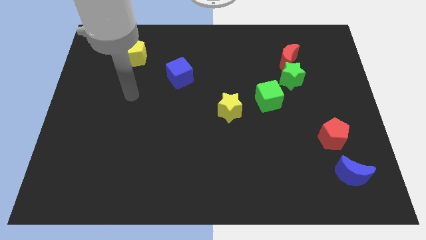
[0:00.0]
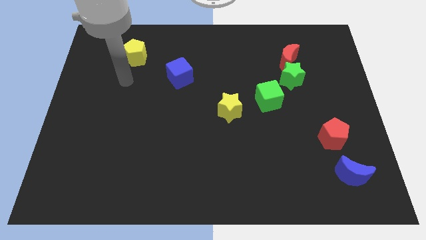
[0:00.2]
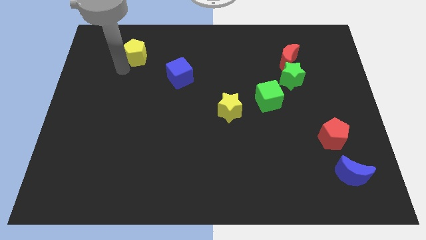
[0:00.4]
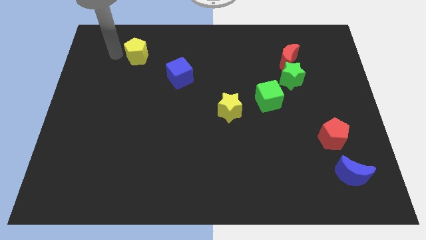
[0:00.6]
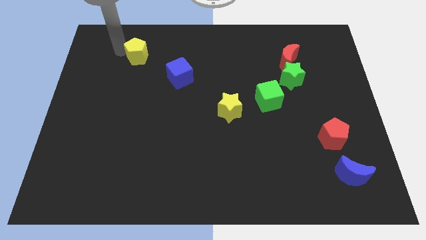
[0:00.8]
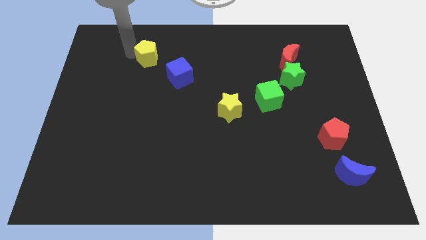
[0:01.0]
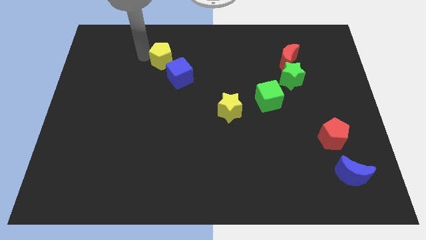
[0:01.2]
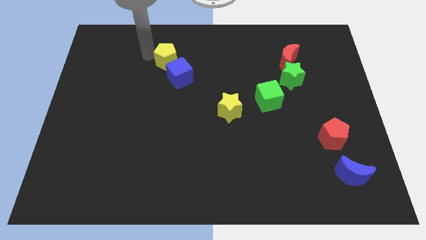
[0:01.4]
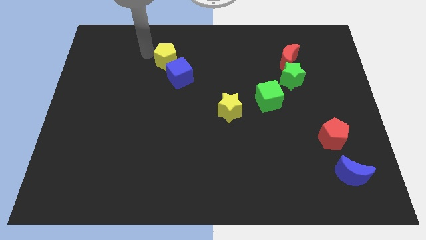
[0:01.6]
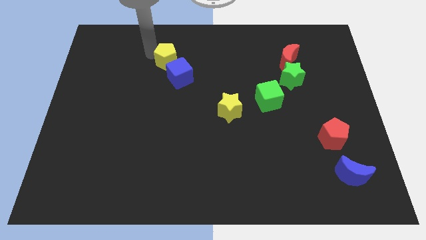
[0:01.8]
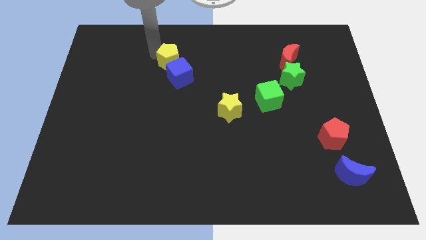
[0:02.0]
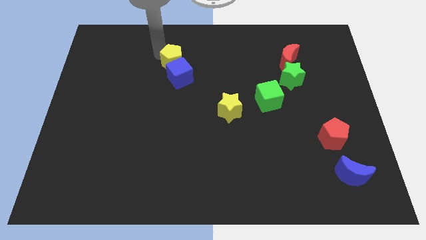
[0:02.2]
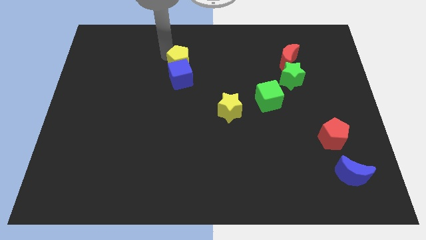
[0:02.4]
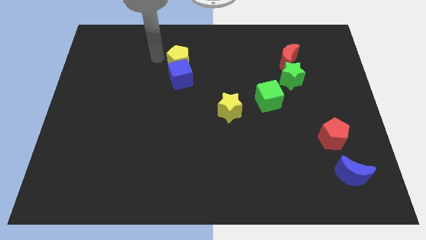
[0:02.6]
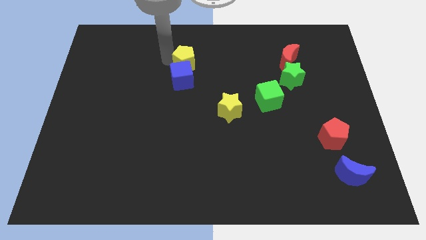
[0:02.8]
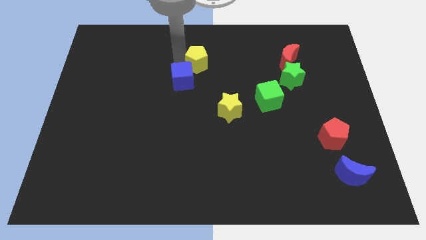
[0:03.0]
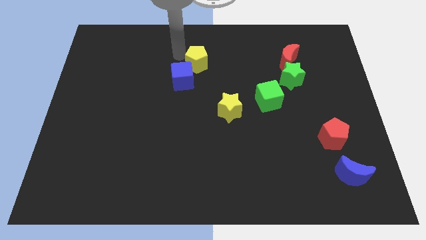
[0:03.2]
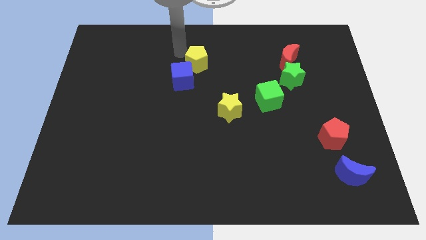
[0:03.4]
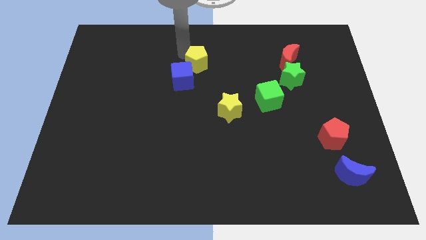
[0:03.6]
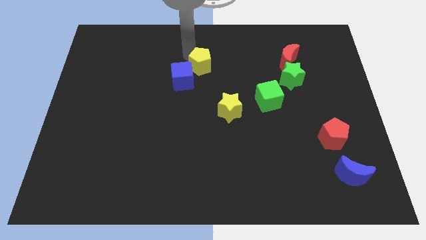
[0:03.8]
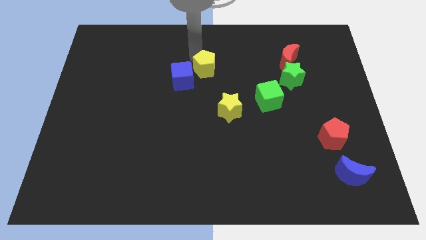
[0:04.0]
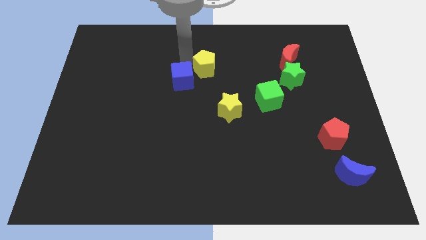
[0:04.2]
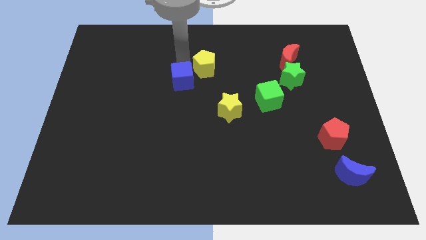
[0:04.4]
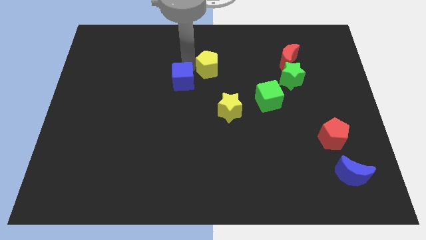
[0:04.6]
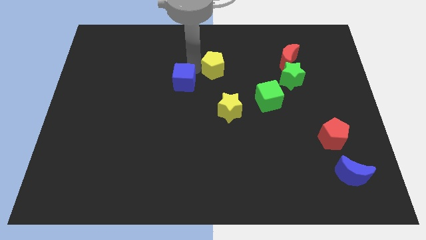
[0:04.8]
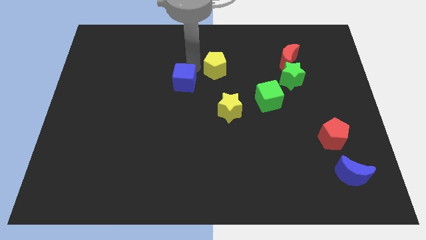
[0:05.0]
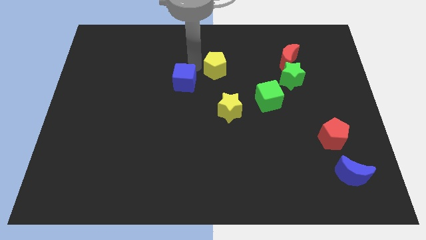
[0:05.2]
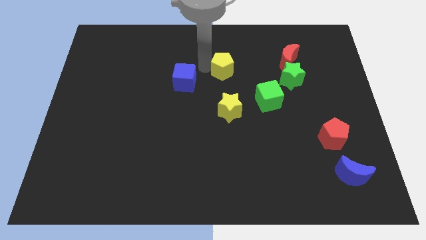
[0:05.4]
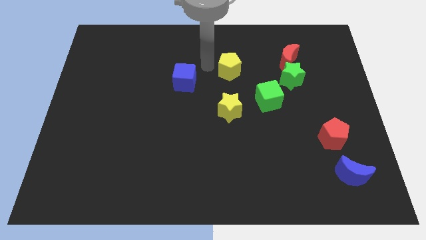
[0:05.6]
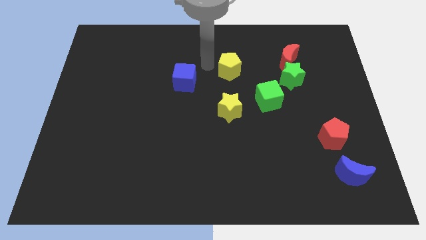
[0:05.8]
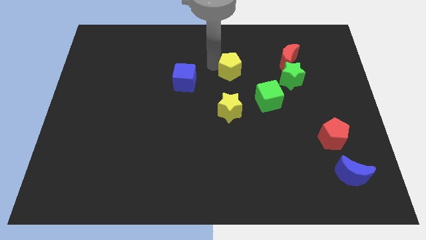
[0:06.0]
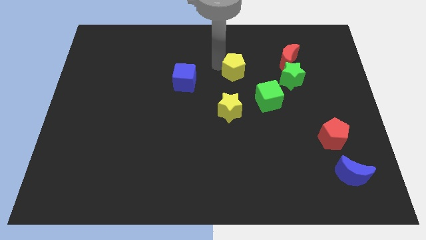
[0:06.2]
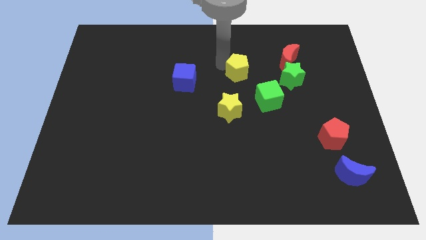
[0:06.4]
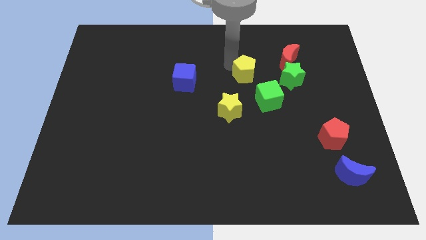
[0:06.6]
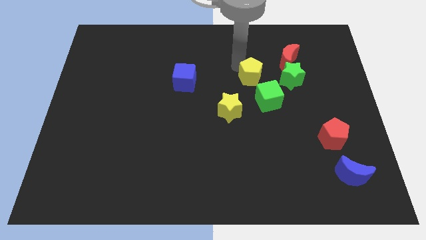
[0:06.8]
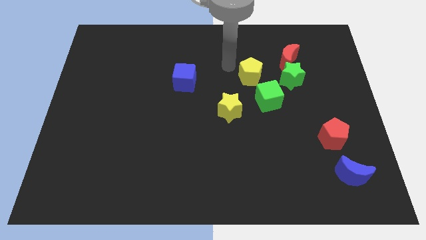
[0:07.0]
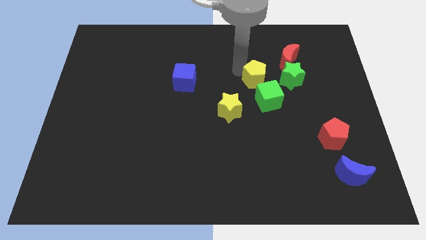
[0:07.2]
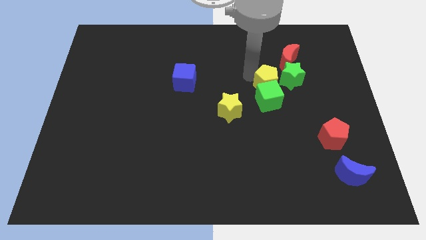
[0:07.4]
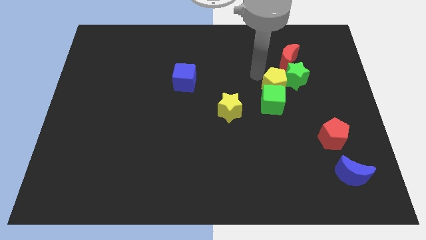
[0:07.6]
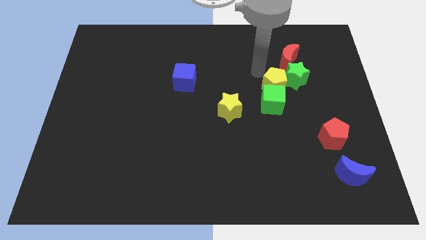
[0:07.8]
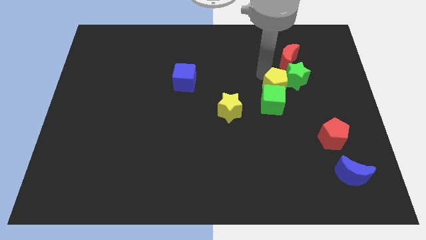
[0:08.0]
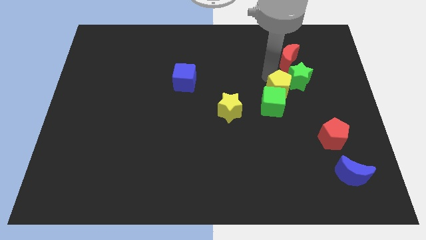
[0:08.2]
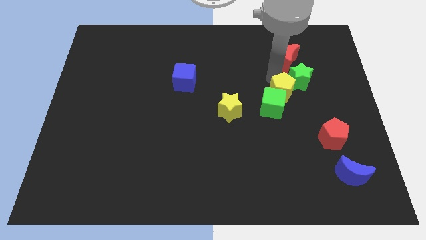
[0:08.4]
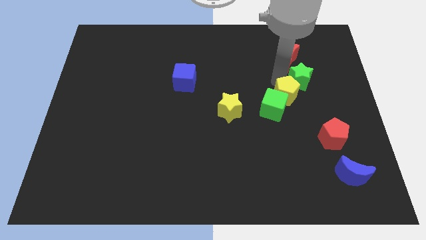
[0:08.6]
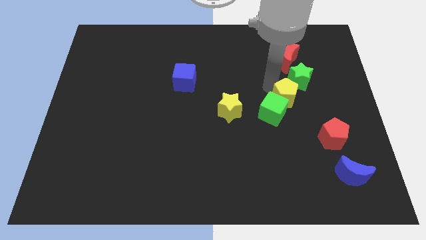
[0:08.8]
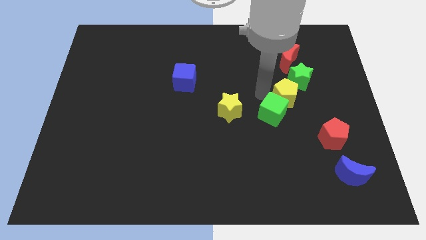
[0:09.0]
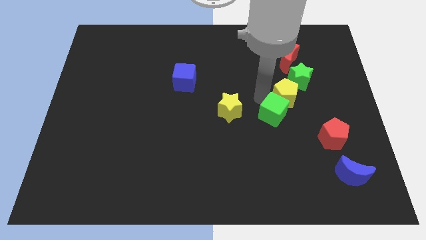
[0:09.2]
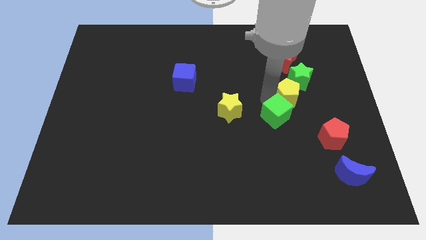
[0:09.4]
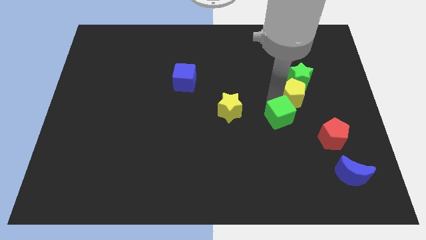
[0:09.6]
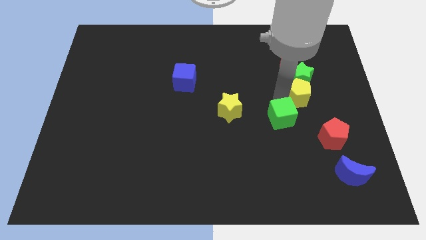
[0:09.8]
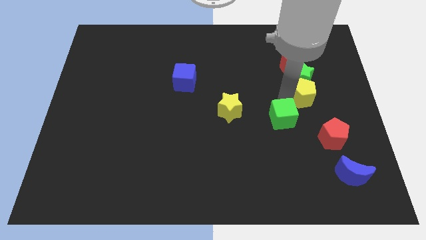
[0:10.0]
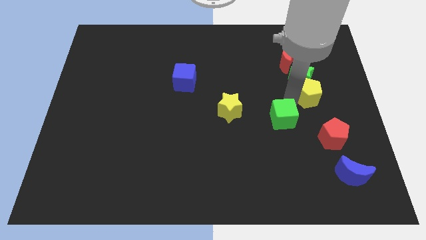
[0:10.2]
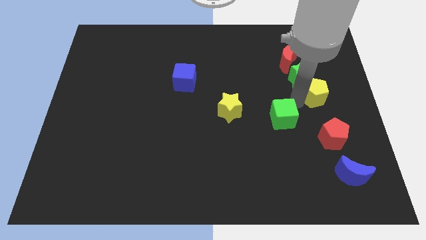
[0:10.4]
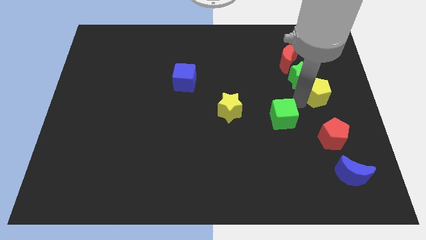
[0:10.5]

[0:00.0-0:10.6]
move the yellow pentagon to the right side of the board

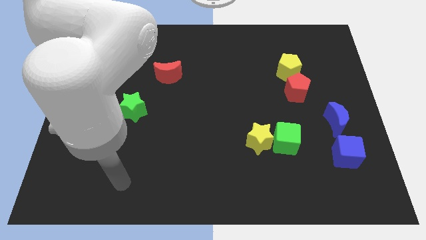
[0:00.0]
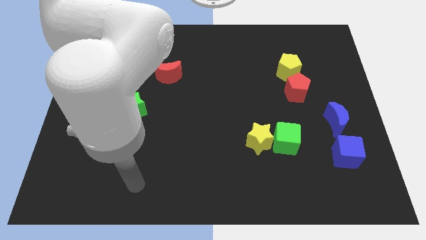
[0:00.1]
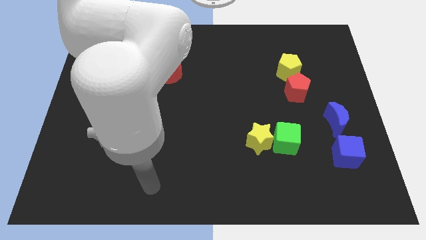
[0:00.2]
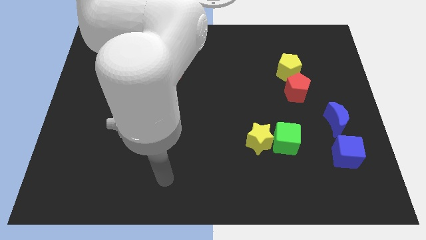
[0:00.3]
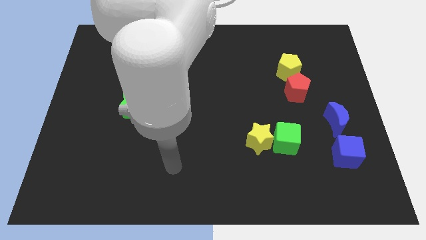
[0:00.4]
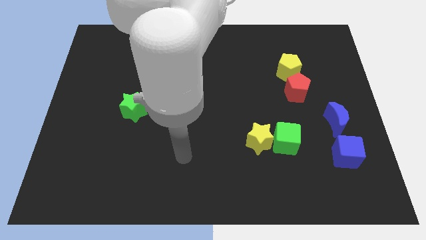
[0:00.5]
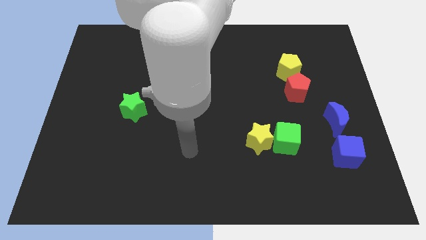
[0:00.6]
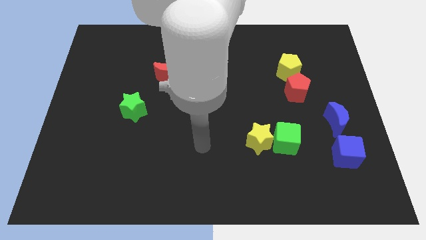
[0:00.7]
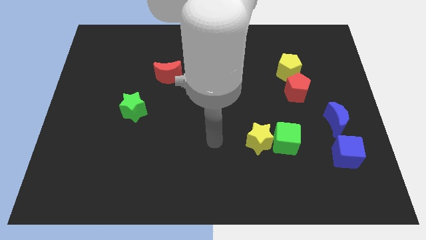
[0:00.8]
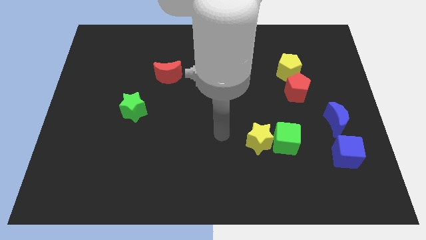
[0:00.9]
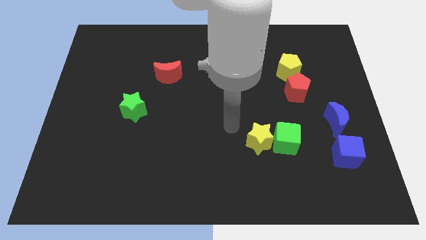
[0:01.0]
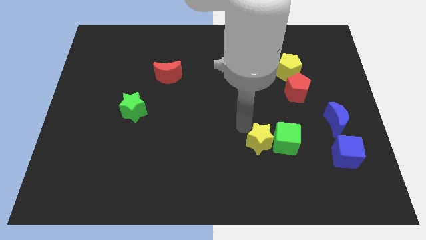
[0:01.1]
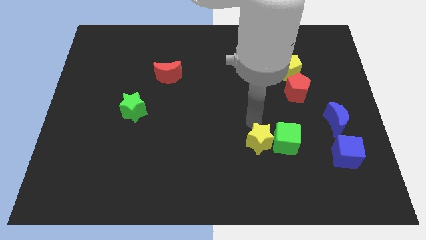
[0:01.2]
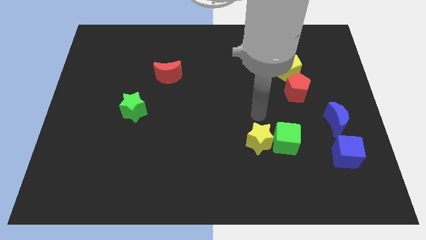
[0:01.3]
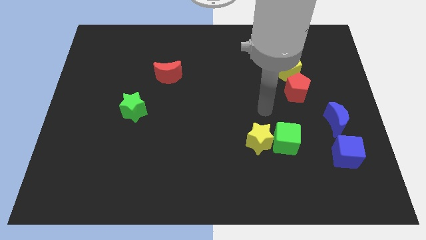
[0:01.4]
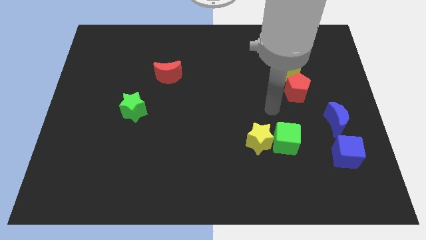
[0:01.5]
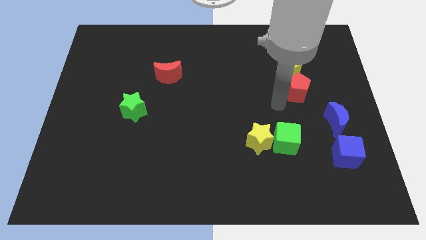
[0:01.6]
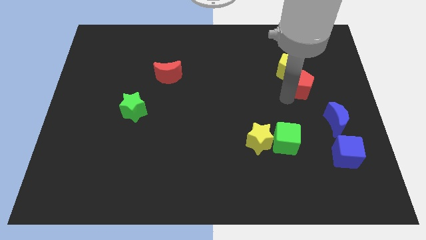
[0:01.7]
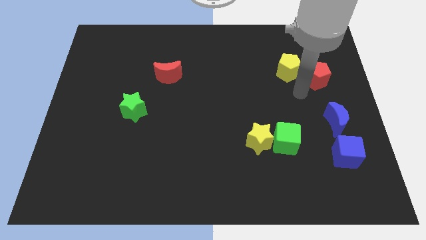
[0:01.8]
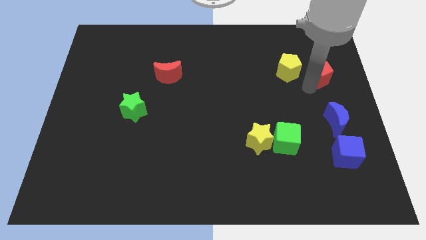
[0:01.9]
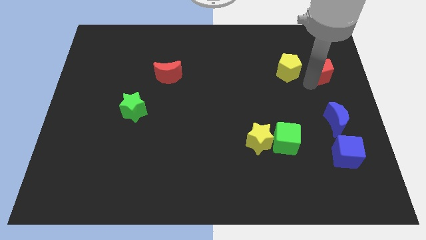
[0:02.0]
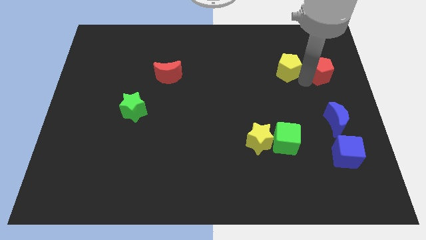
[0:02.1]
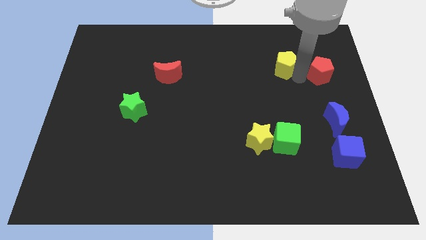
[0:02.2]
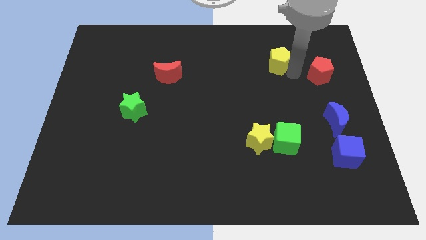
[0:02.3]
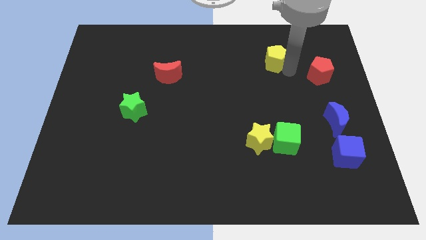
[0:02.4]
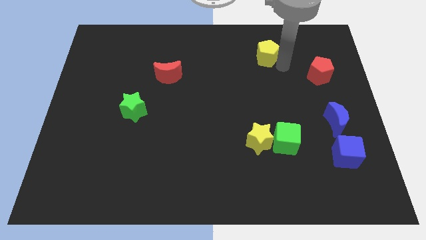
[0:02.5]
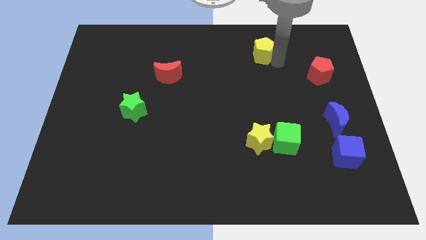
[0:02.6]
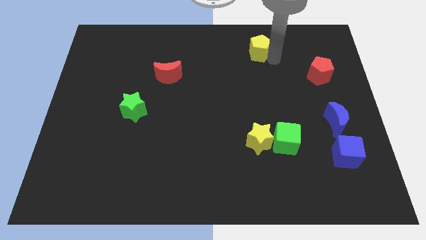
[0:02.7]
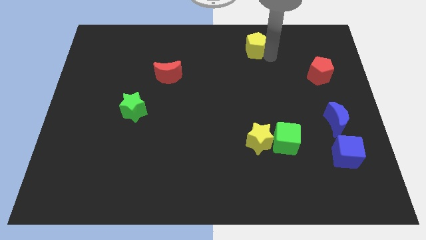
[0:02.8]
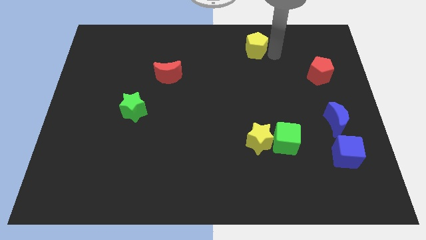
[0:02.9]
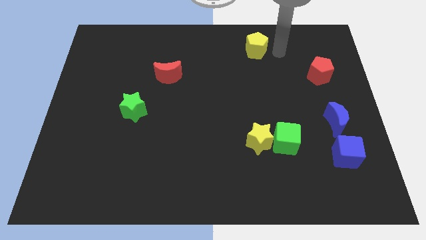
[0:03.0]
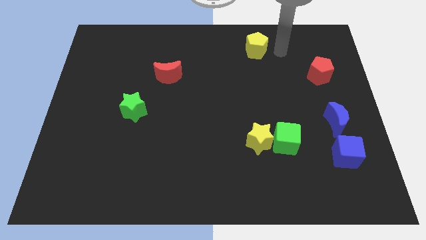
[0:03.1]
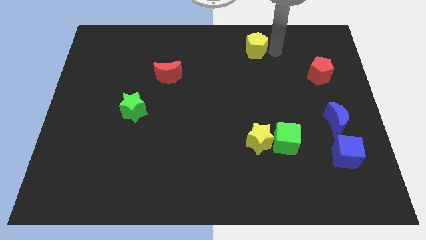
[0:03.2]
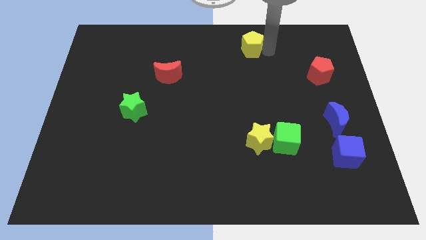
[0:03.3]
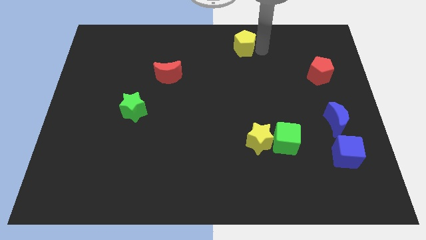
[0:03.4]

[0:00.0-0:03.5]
slide the yellow pentagon to the top side
